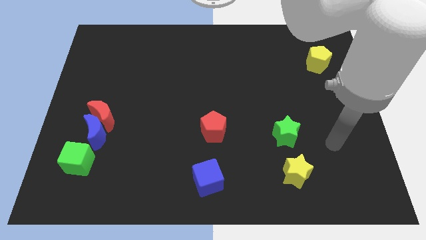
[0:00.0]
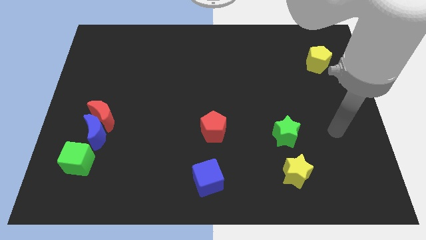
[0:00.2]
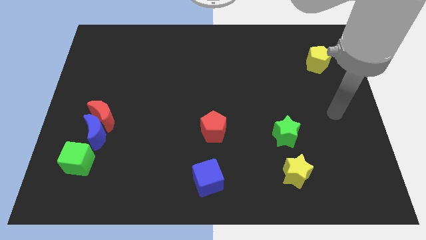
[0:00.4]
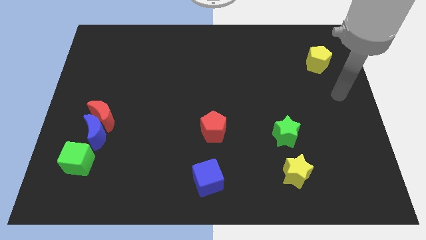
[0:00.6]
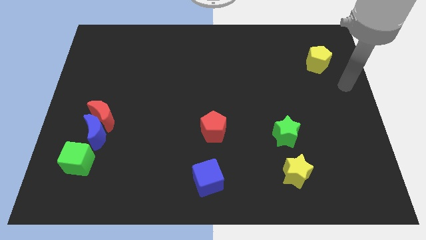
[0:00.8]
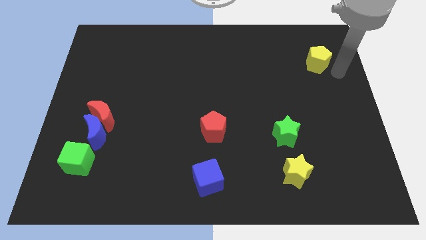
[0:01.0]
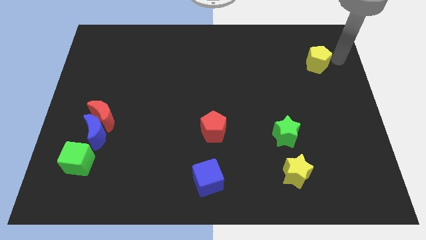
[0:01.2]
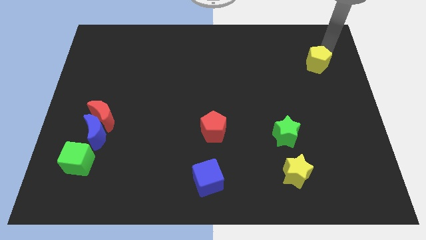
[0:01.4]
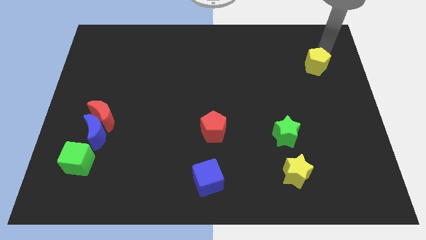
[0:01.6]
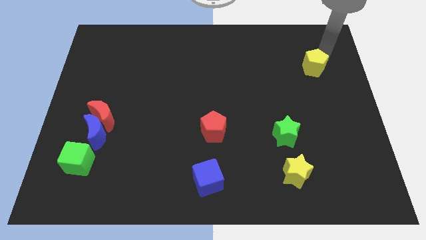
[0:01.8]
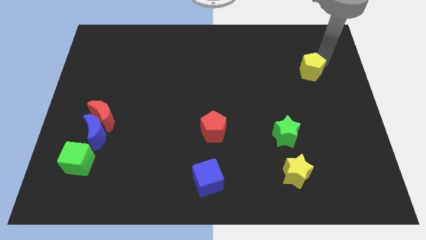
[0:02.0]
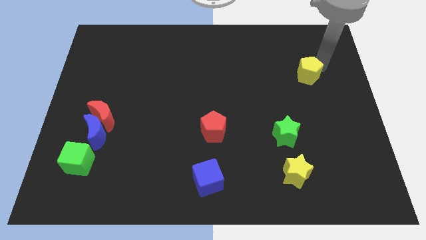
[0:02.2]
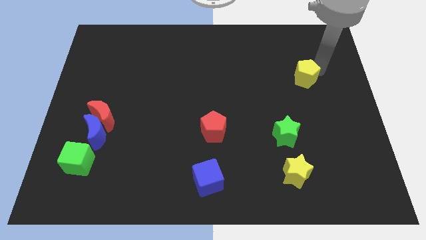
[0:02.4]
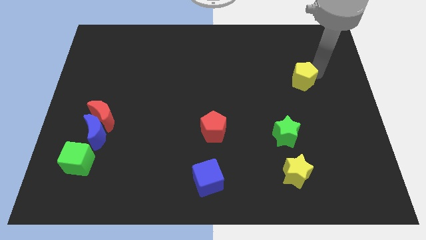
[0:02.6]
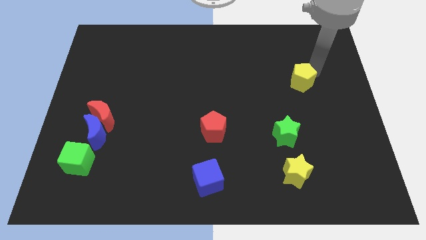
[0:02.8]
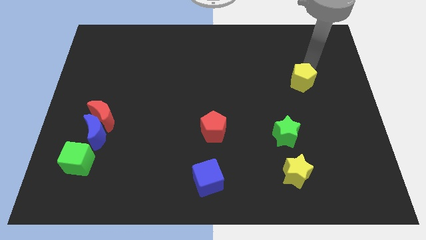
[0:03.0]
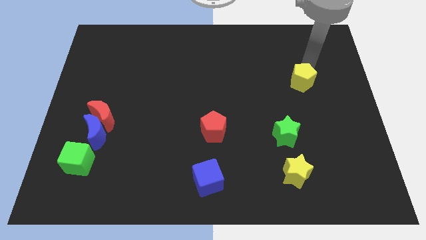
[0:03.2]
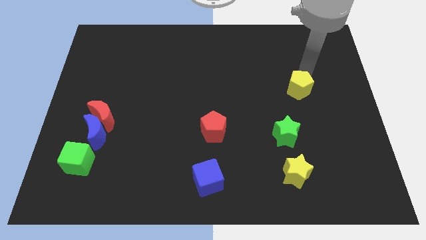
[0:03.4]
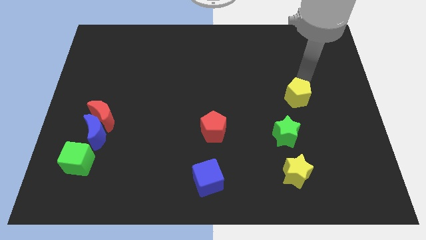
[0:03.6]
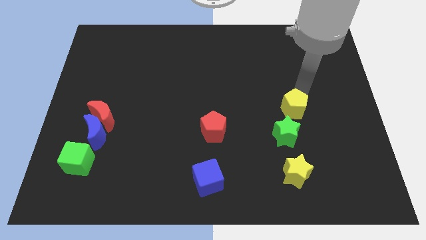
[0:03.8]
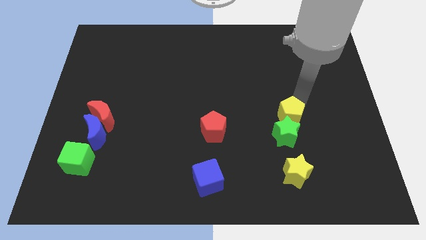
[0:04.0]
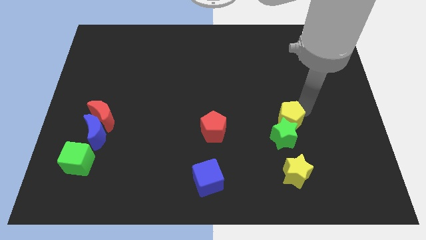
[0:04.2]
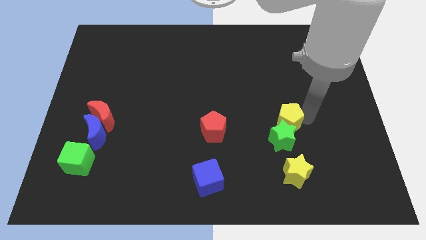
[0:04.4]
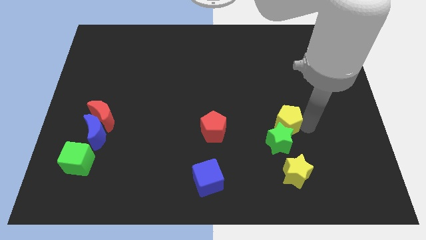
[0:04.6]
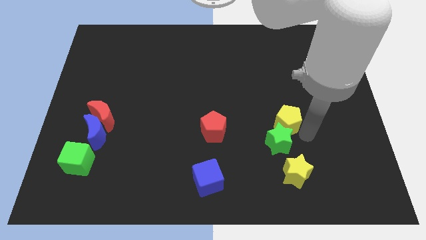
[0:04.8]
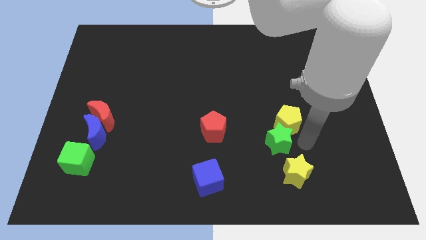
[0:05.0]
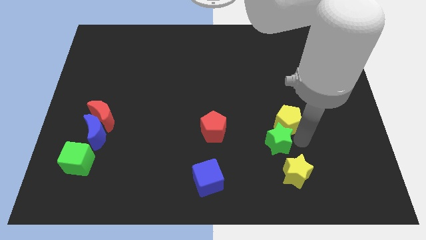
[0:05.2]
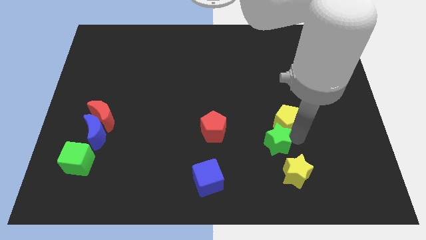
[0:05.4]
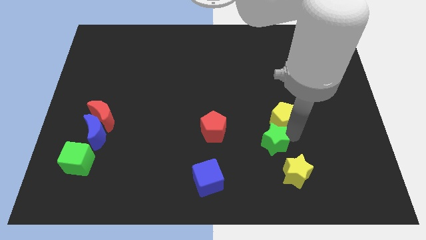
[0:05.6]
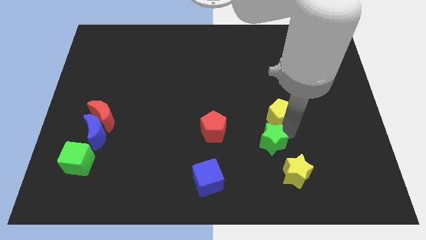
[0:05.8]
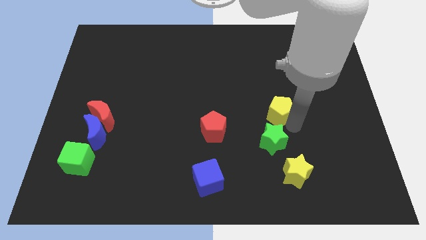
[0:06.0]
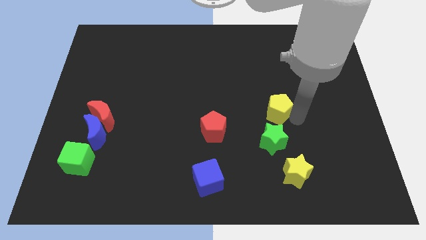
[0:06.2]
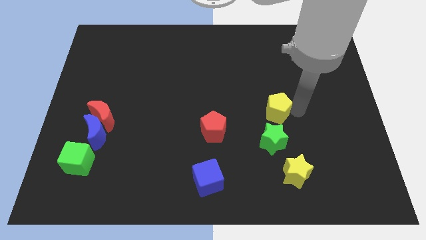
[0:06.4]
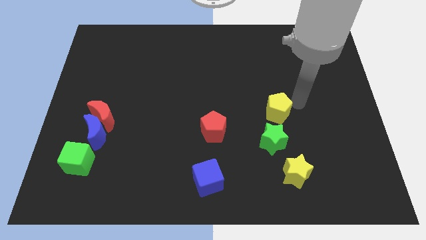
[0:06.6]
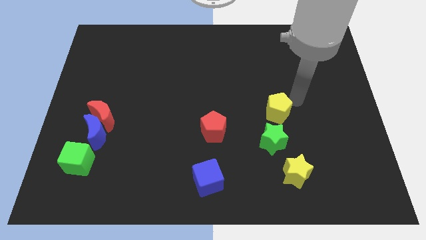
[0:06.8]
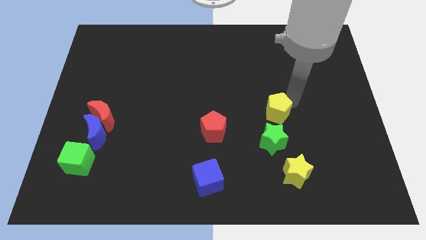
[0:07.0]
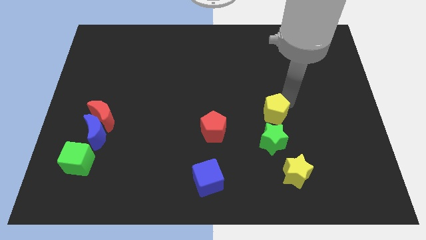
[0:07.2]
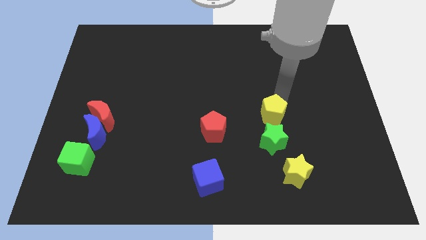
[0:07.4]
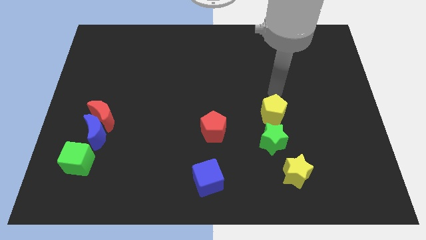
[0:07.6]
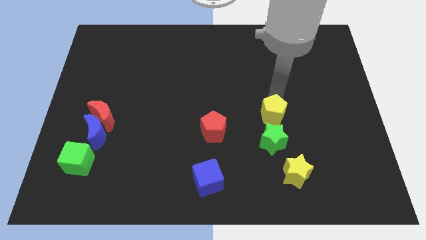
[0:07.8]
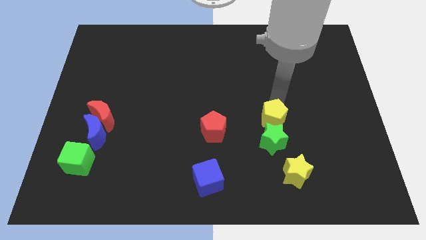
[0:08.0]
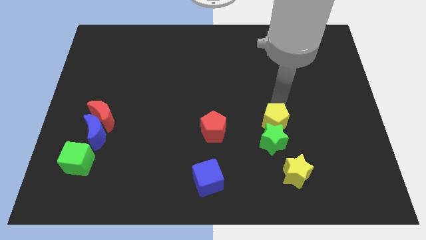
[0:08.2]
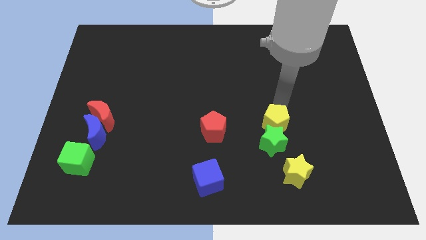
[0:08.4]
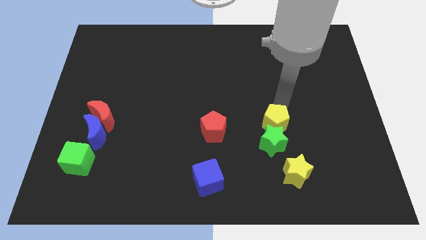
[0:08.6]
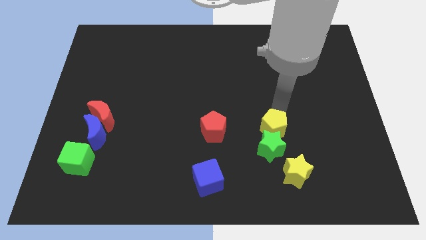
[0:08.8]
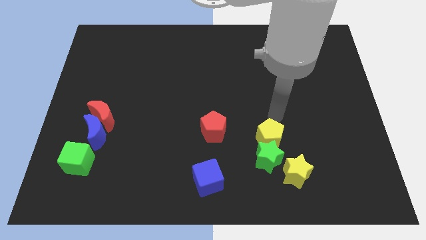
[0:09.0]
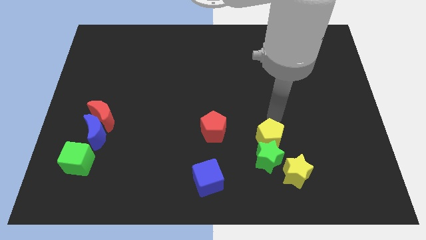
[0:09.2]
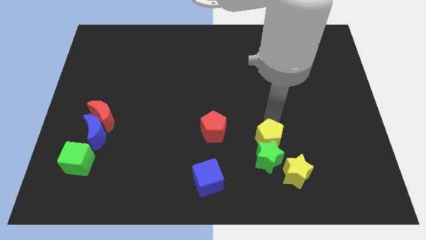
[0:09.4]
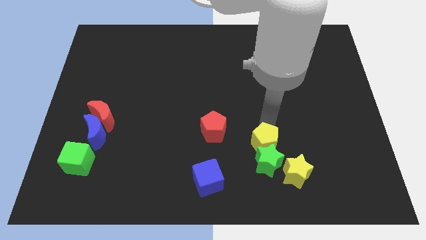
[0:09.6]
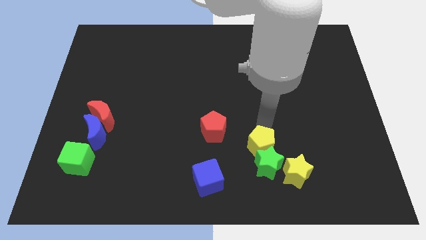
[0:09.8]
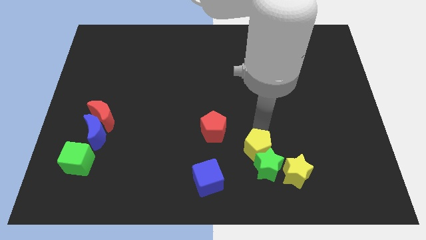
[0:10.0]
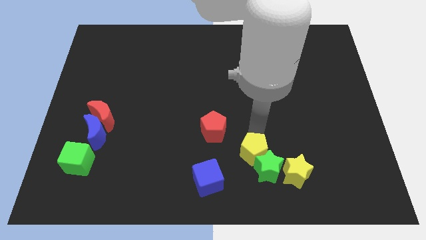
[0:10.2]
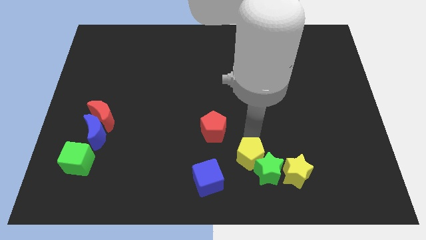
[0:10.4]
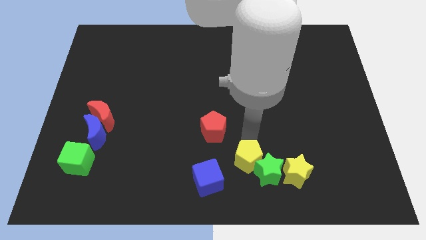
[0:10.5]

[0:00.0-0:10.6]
move the yellow pentagon to the right side of the blue cube

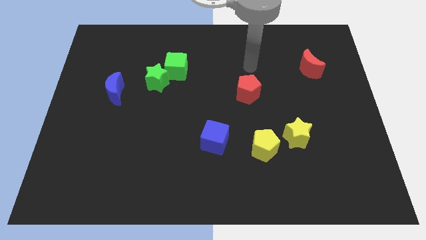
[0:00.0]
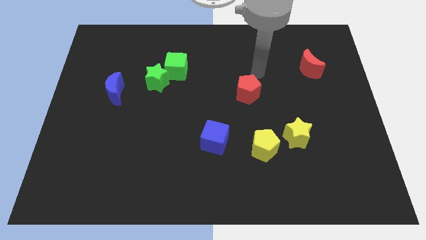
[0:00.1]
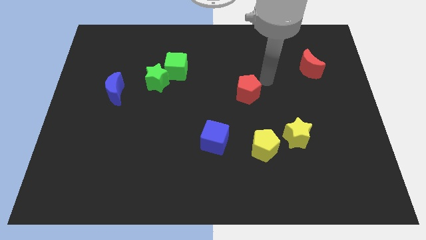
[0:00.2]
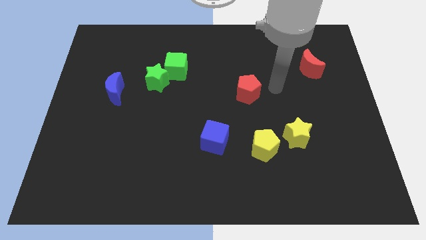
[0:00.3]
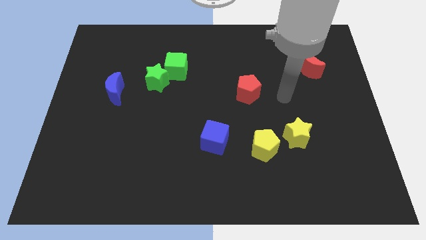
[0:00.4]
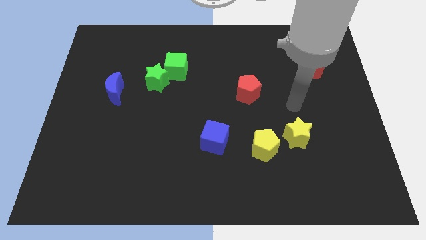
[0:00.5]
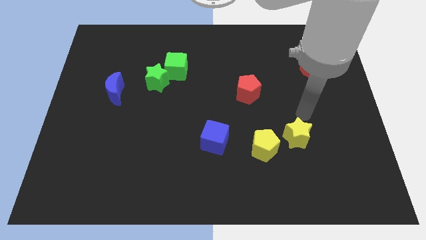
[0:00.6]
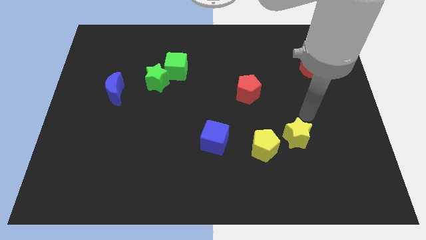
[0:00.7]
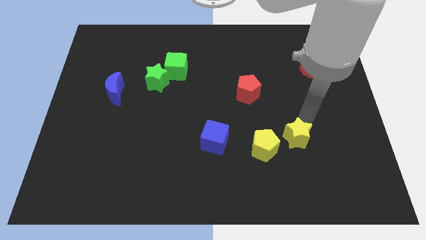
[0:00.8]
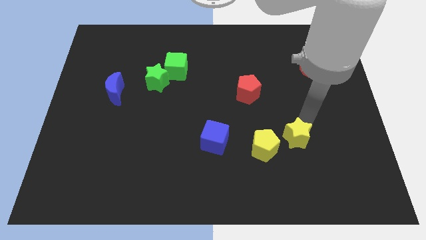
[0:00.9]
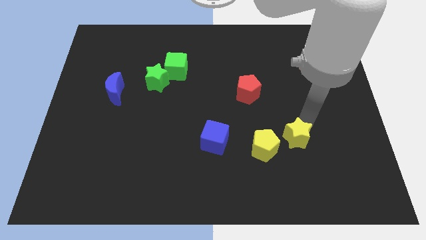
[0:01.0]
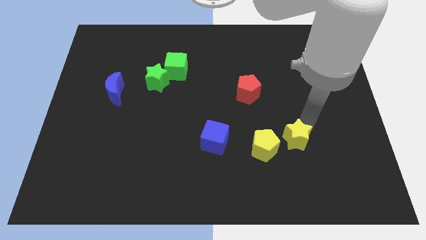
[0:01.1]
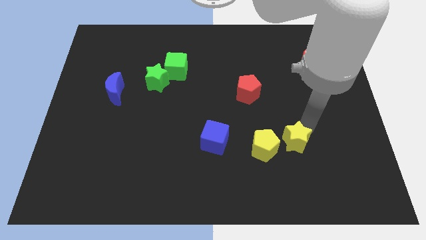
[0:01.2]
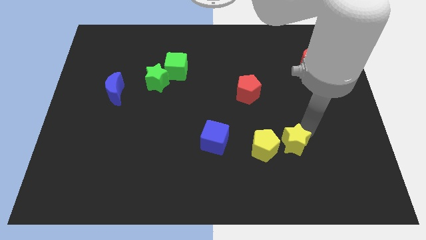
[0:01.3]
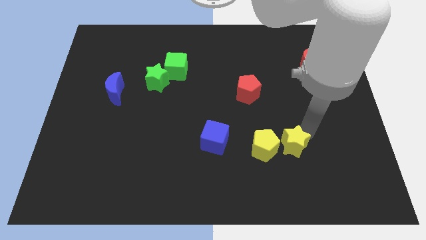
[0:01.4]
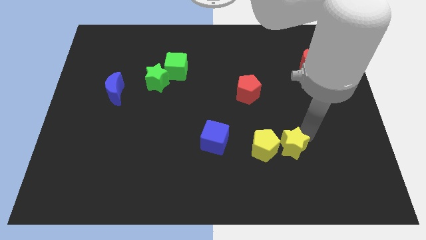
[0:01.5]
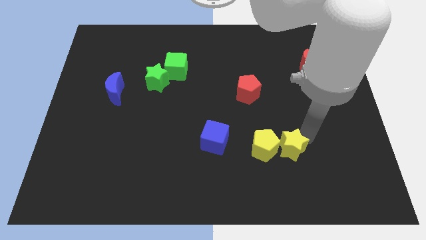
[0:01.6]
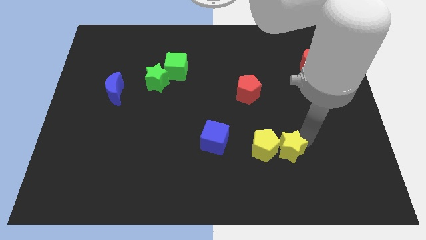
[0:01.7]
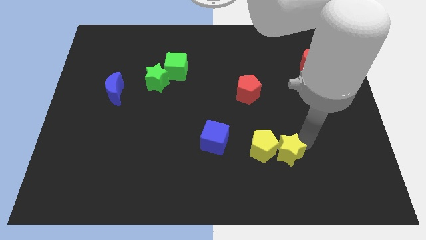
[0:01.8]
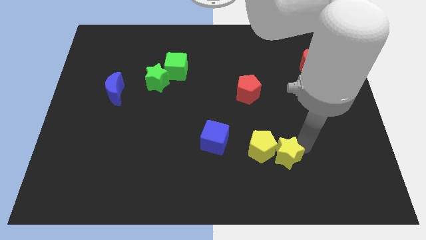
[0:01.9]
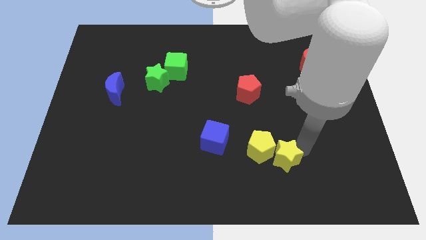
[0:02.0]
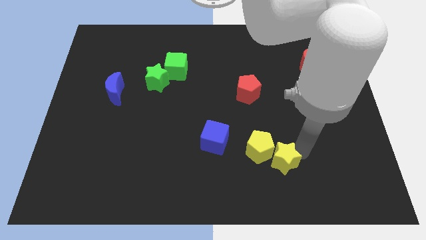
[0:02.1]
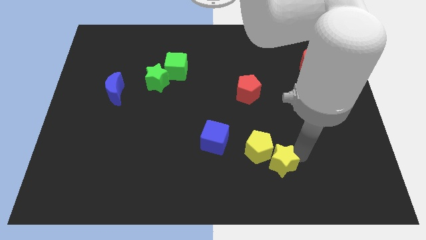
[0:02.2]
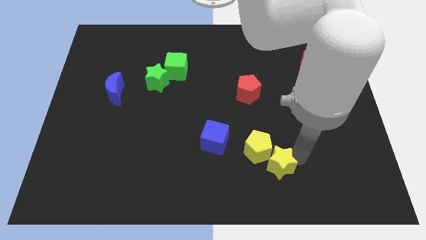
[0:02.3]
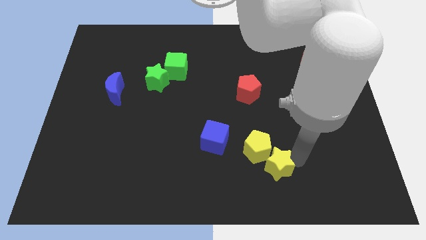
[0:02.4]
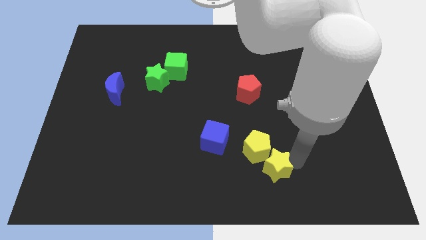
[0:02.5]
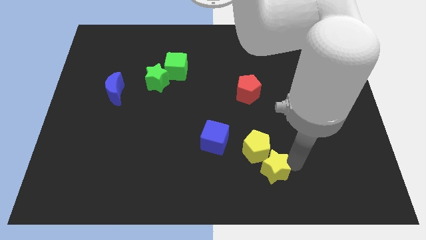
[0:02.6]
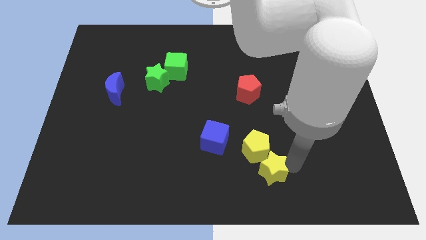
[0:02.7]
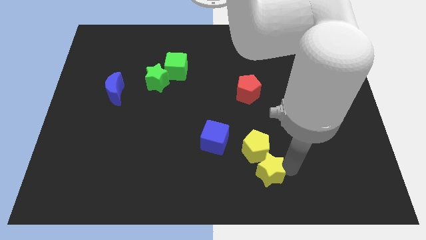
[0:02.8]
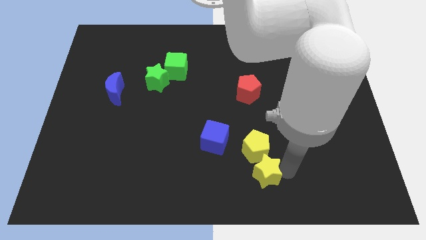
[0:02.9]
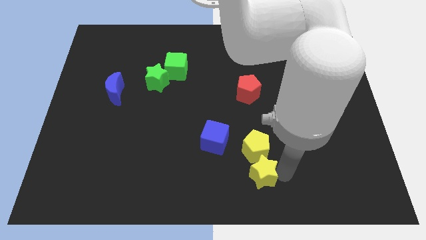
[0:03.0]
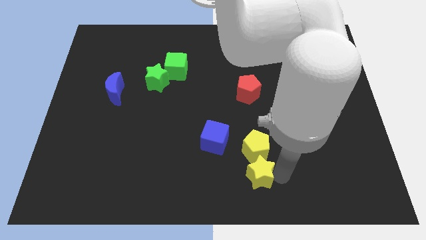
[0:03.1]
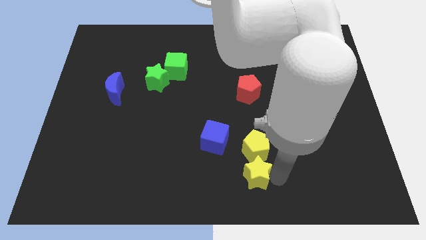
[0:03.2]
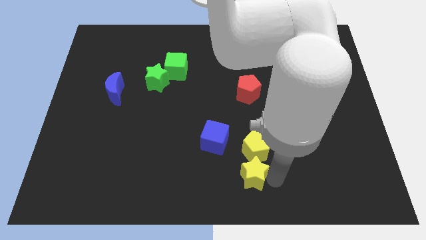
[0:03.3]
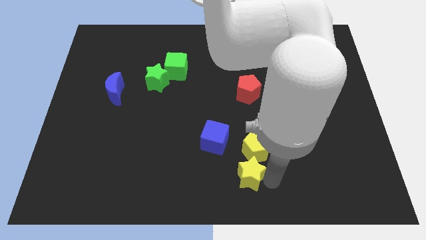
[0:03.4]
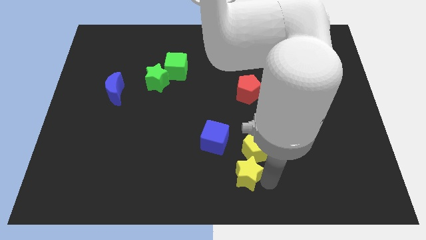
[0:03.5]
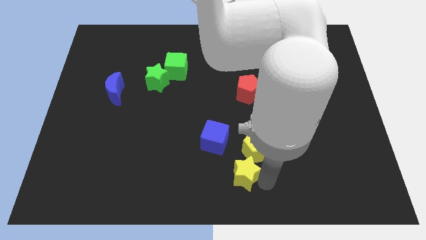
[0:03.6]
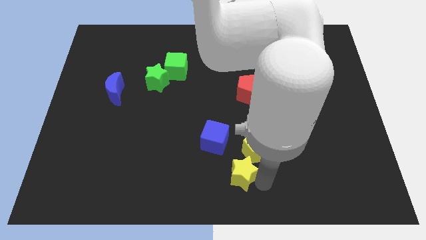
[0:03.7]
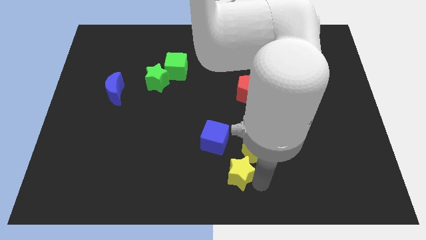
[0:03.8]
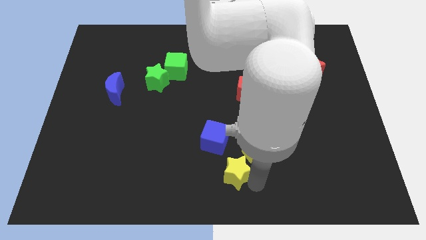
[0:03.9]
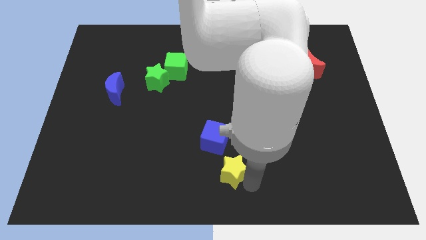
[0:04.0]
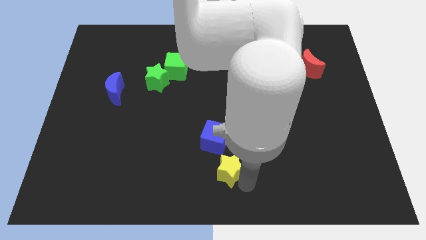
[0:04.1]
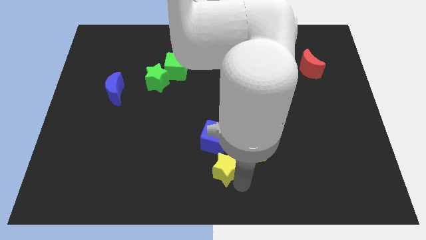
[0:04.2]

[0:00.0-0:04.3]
slide the yellow star left of the yellow pentagon
